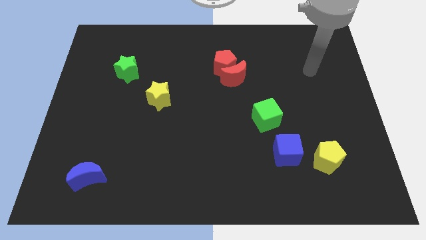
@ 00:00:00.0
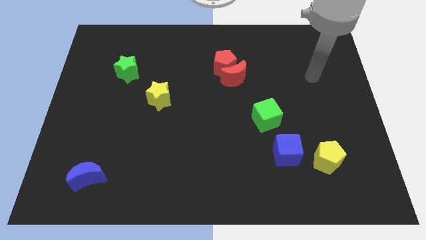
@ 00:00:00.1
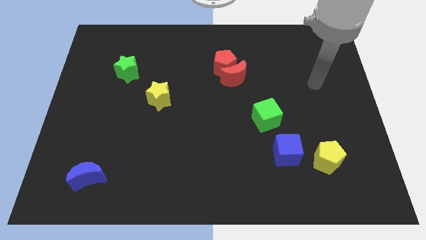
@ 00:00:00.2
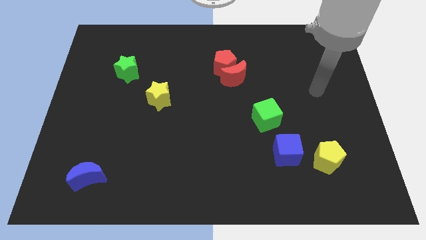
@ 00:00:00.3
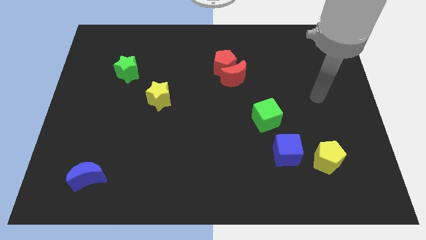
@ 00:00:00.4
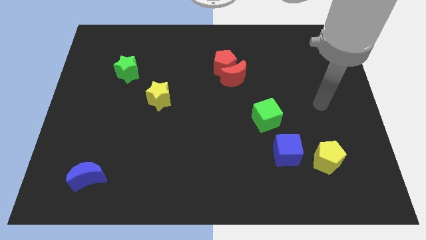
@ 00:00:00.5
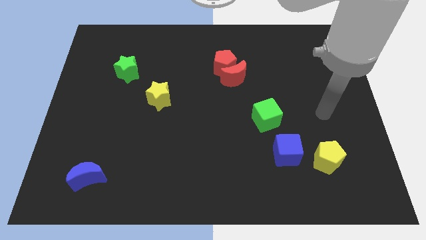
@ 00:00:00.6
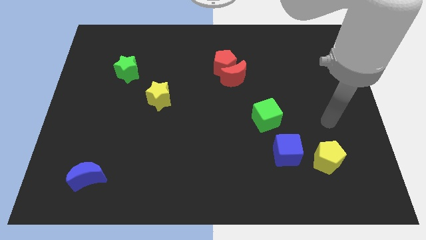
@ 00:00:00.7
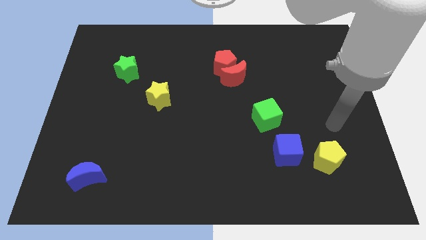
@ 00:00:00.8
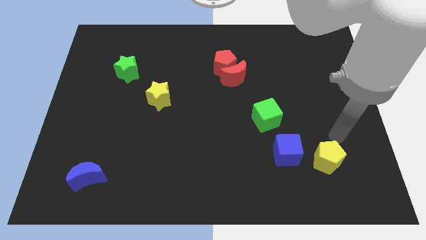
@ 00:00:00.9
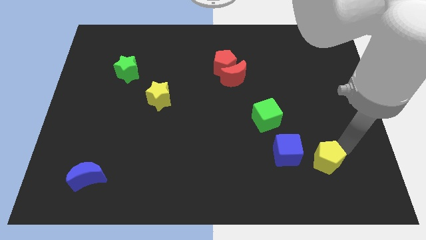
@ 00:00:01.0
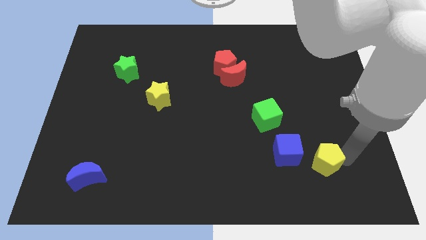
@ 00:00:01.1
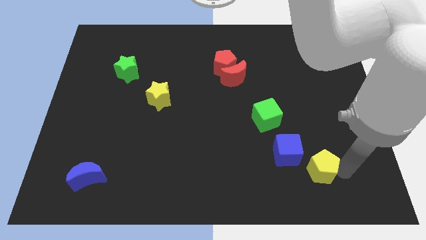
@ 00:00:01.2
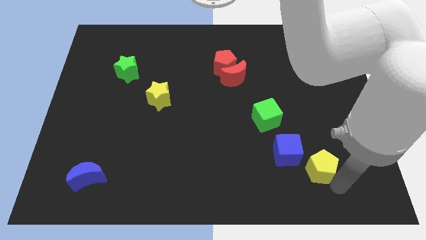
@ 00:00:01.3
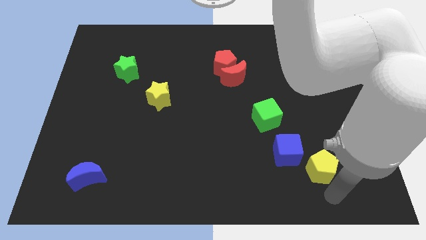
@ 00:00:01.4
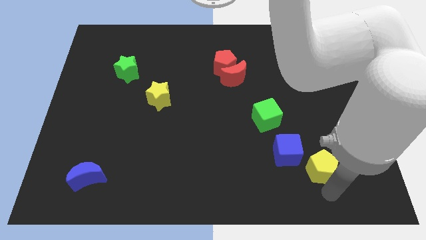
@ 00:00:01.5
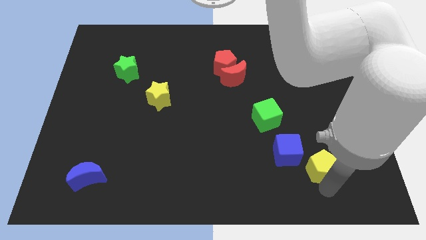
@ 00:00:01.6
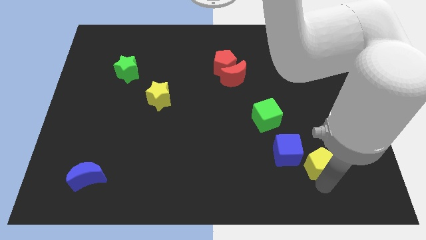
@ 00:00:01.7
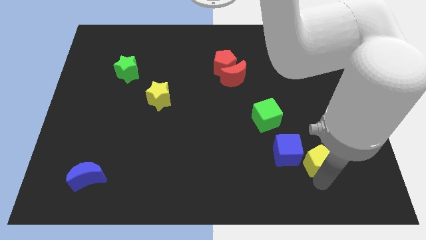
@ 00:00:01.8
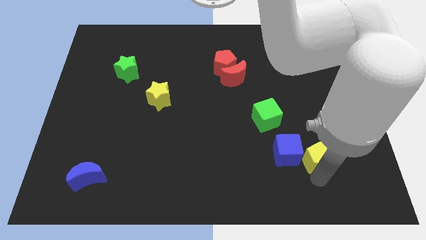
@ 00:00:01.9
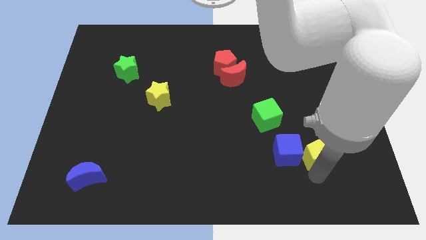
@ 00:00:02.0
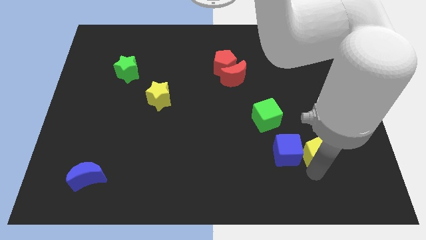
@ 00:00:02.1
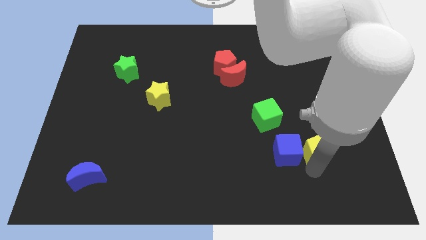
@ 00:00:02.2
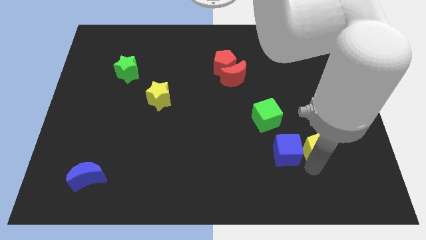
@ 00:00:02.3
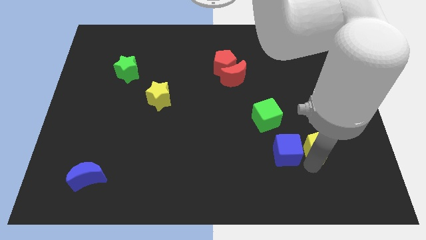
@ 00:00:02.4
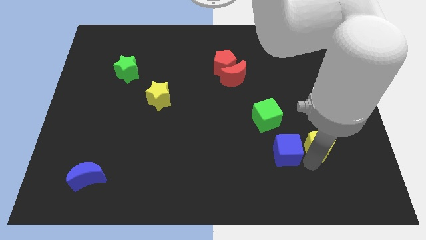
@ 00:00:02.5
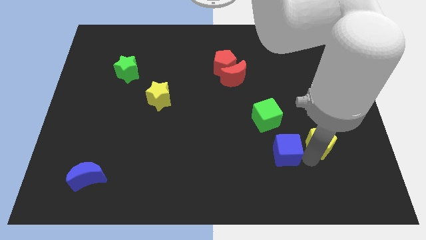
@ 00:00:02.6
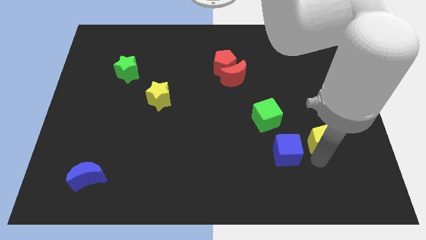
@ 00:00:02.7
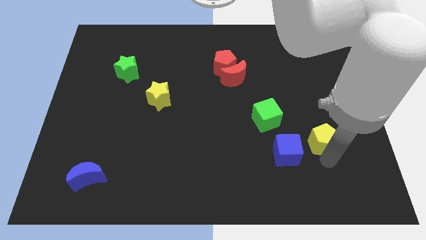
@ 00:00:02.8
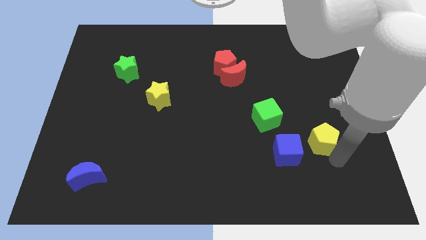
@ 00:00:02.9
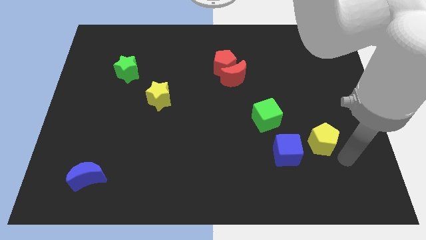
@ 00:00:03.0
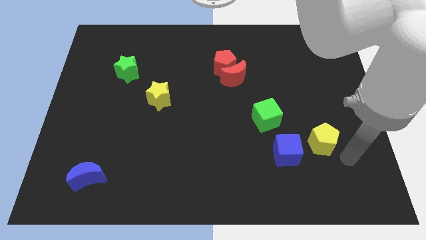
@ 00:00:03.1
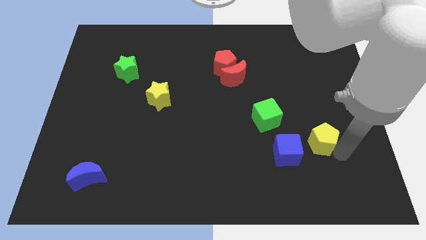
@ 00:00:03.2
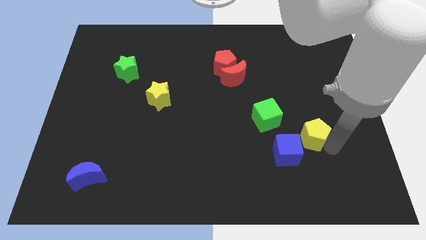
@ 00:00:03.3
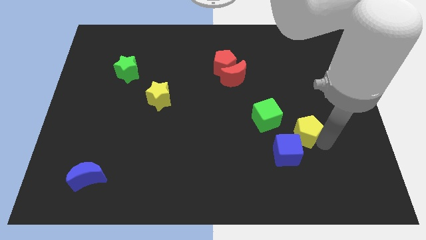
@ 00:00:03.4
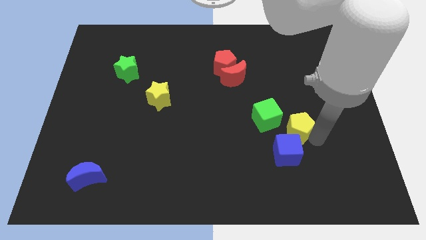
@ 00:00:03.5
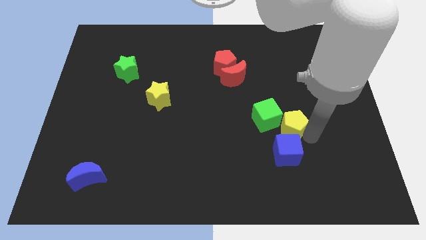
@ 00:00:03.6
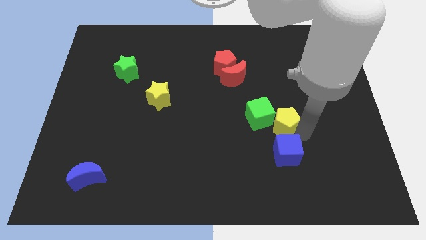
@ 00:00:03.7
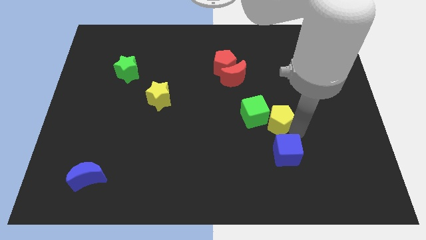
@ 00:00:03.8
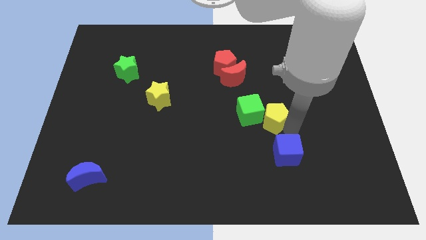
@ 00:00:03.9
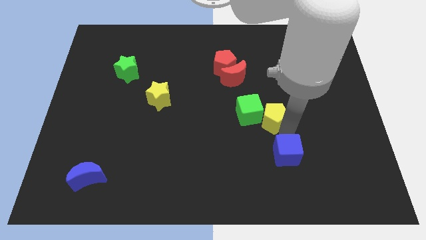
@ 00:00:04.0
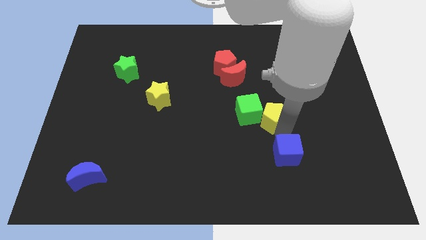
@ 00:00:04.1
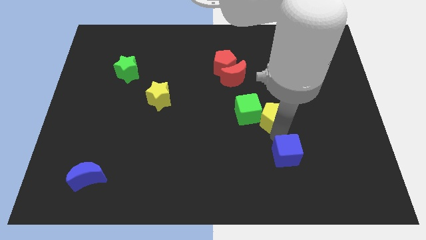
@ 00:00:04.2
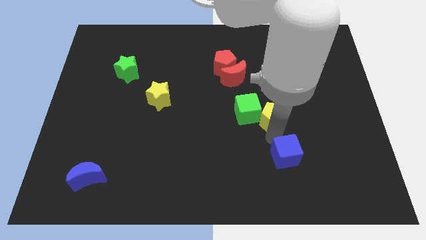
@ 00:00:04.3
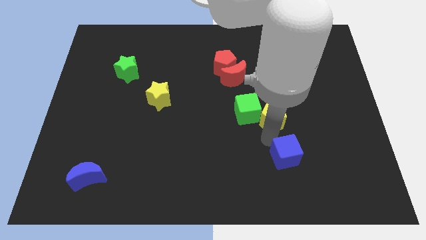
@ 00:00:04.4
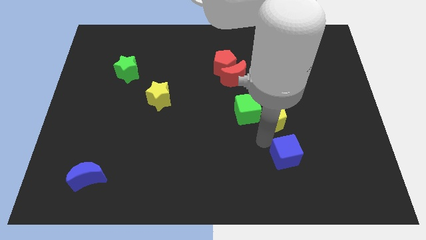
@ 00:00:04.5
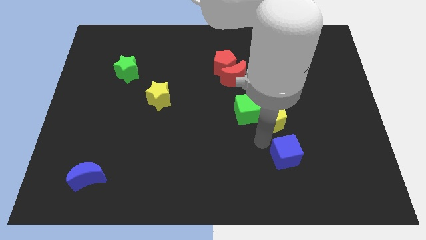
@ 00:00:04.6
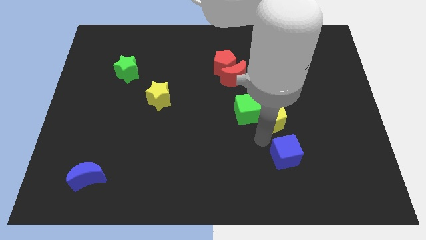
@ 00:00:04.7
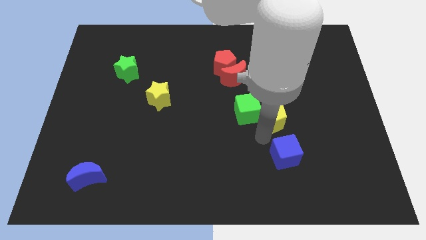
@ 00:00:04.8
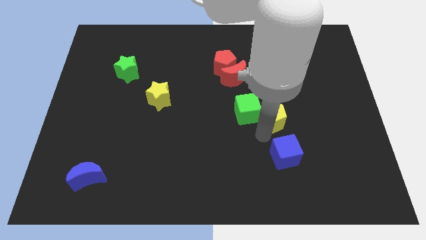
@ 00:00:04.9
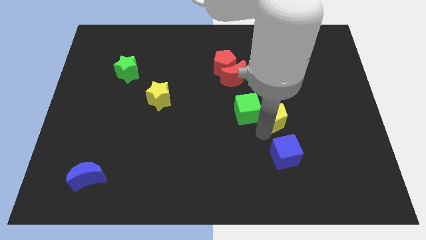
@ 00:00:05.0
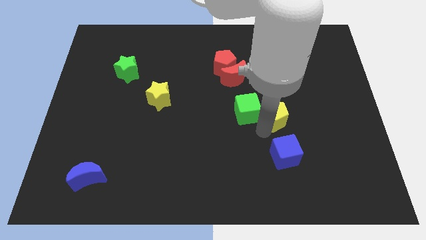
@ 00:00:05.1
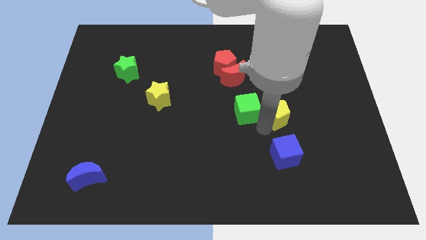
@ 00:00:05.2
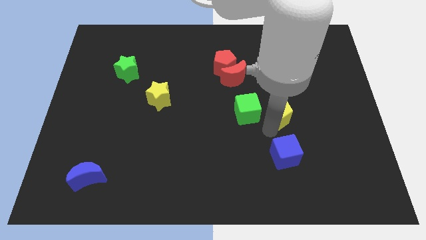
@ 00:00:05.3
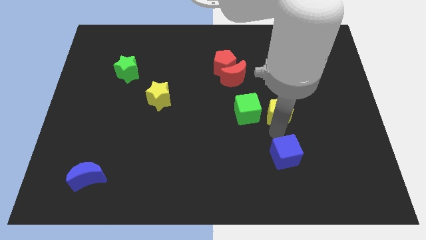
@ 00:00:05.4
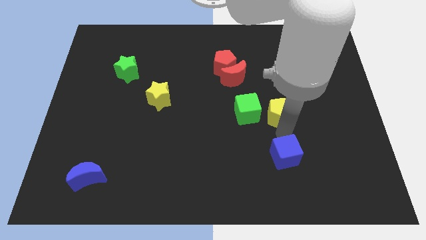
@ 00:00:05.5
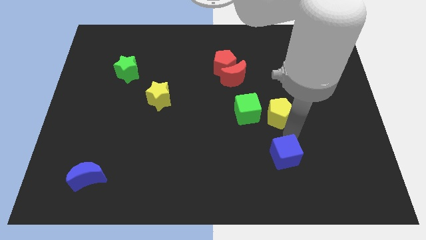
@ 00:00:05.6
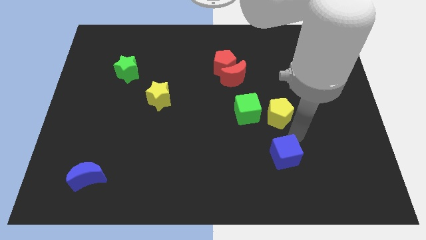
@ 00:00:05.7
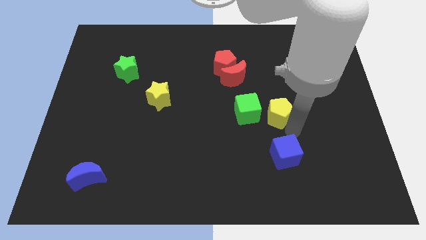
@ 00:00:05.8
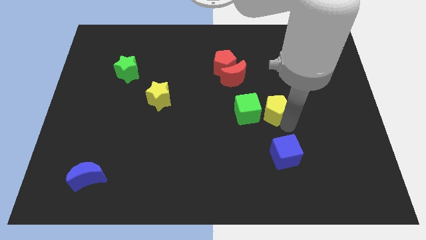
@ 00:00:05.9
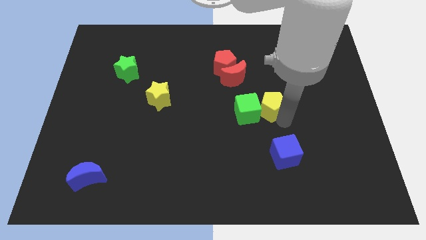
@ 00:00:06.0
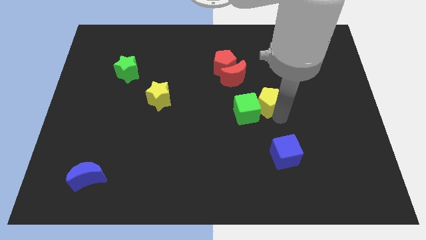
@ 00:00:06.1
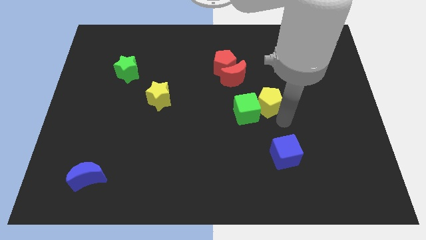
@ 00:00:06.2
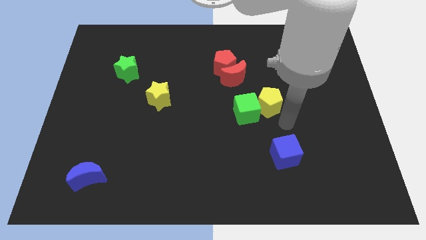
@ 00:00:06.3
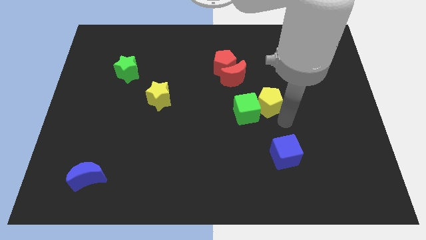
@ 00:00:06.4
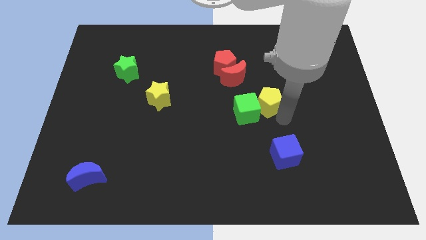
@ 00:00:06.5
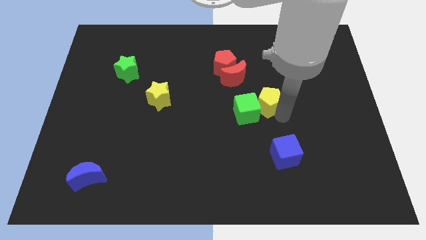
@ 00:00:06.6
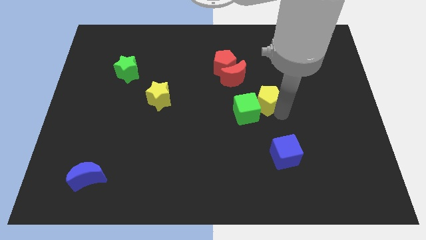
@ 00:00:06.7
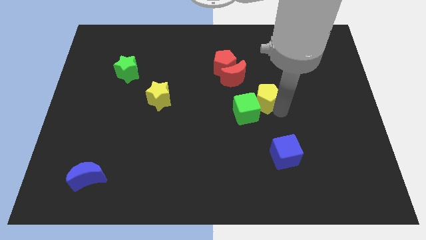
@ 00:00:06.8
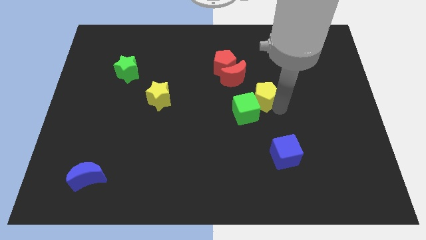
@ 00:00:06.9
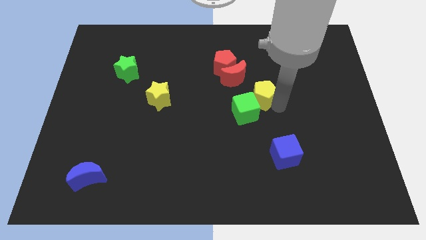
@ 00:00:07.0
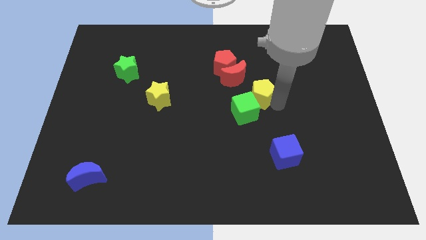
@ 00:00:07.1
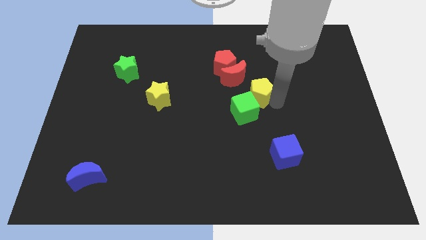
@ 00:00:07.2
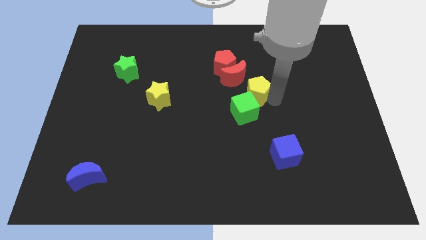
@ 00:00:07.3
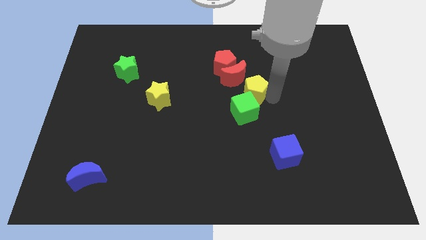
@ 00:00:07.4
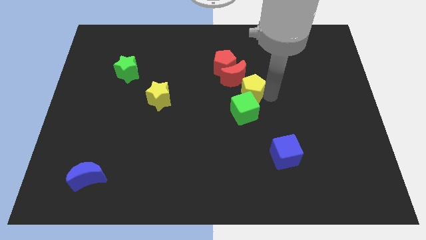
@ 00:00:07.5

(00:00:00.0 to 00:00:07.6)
push the yellow pentagon to the red moon
